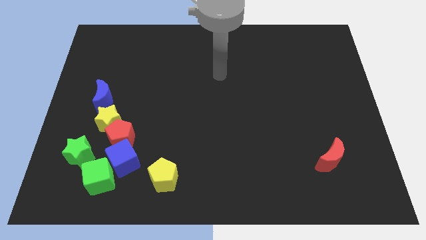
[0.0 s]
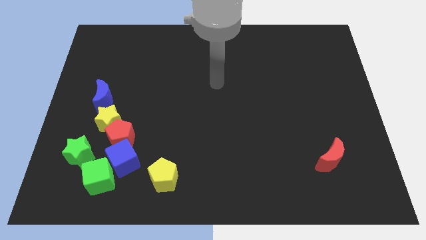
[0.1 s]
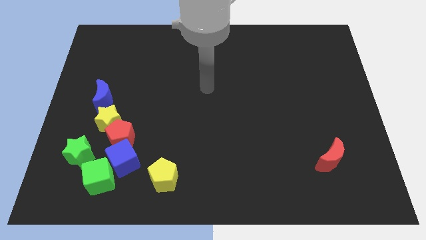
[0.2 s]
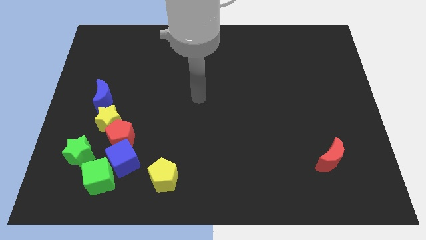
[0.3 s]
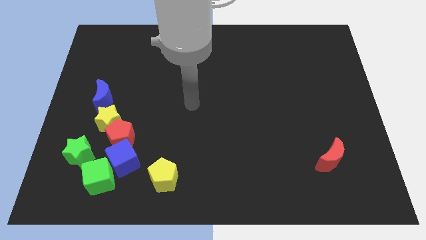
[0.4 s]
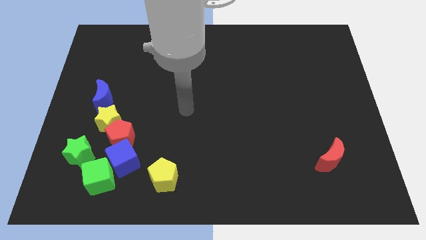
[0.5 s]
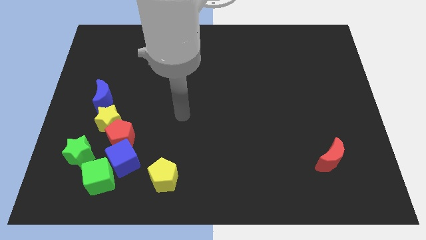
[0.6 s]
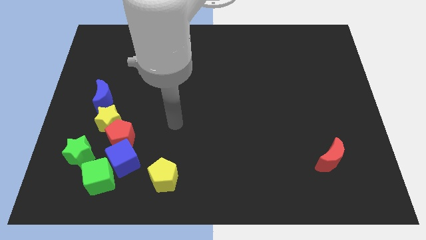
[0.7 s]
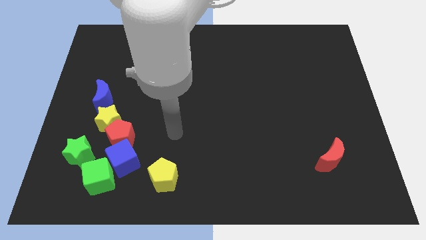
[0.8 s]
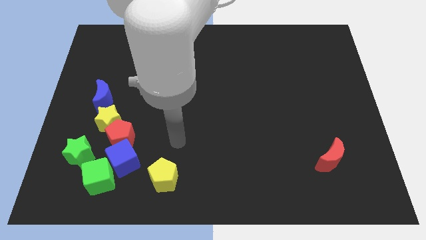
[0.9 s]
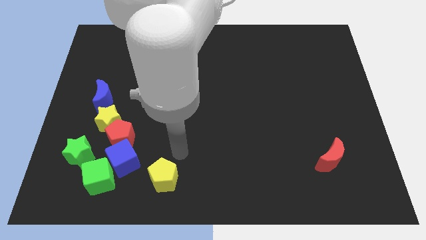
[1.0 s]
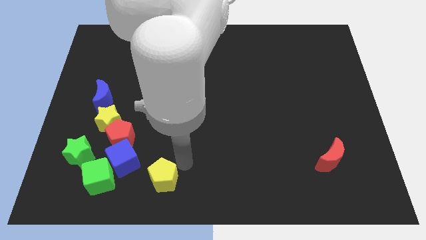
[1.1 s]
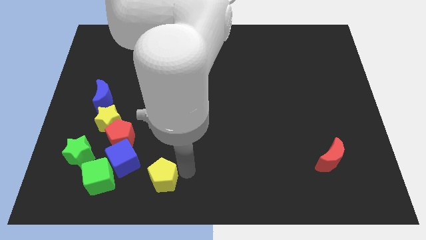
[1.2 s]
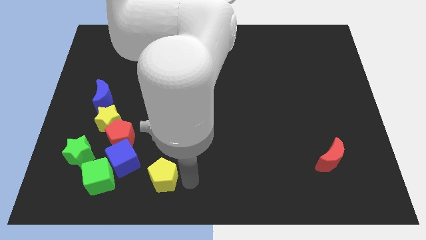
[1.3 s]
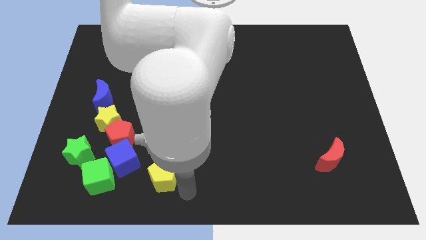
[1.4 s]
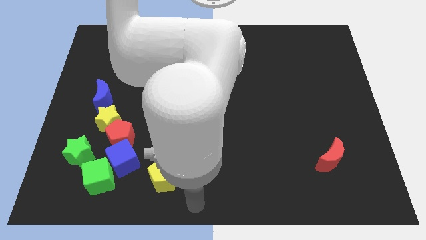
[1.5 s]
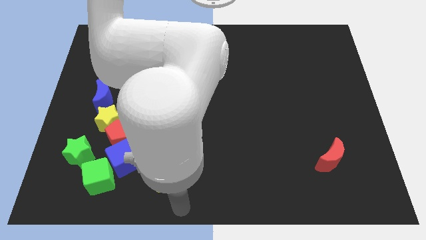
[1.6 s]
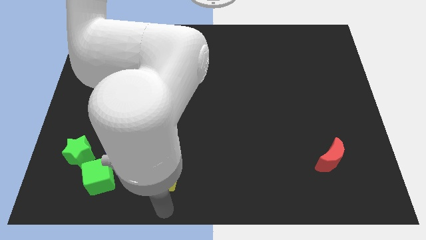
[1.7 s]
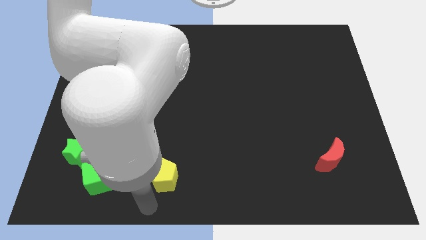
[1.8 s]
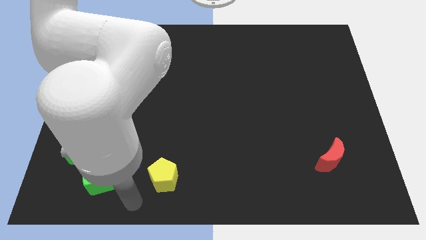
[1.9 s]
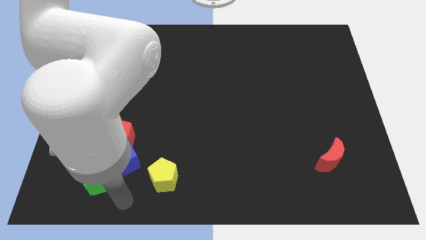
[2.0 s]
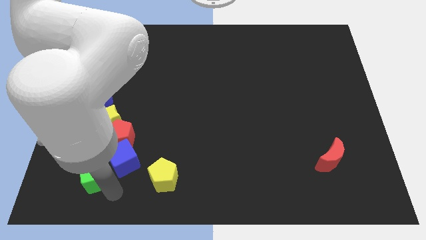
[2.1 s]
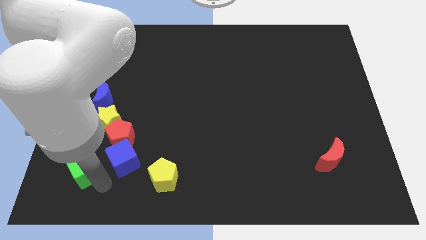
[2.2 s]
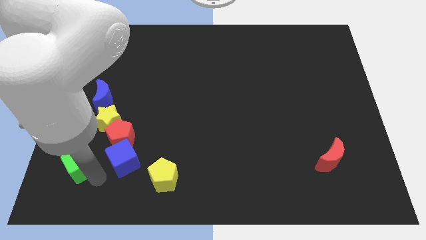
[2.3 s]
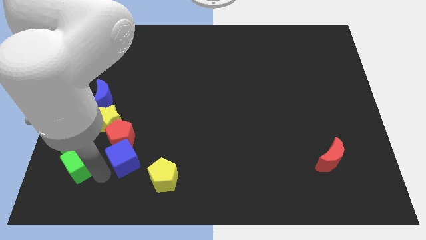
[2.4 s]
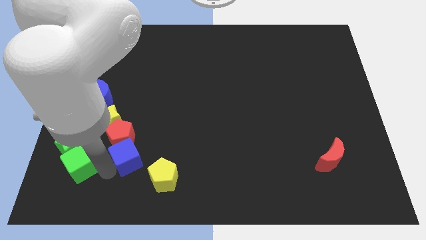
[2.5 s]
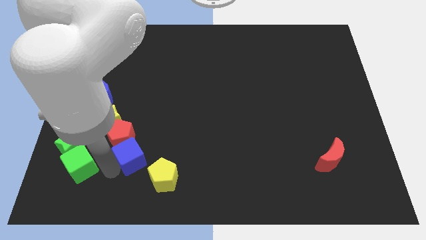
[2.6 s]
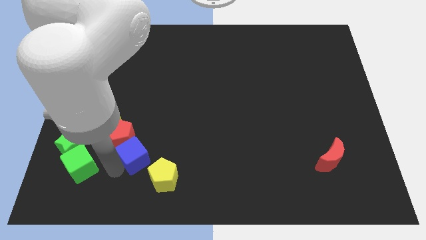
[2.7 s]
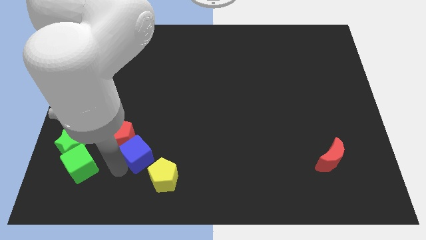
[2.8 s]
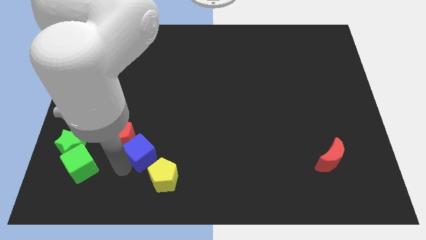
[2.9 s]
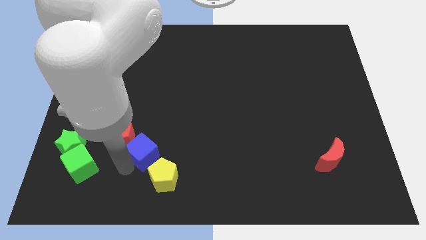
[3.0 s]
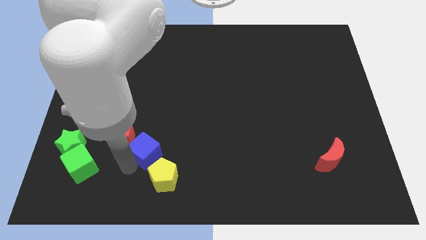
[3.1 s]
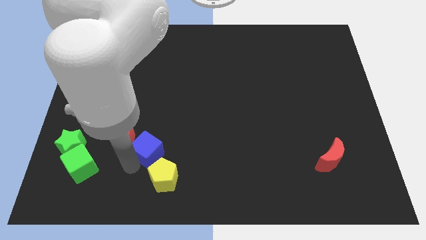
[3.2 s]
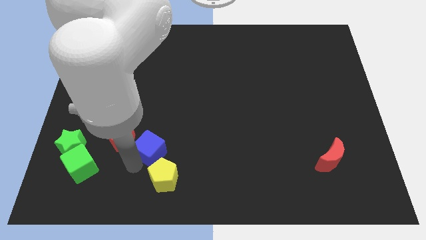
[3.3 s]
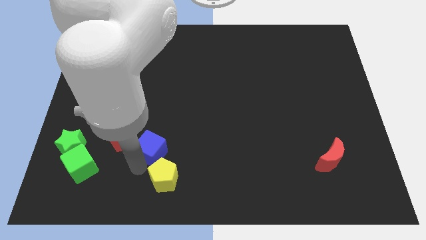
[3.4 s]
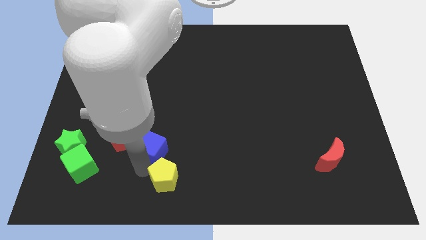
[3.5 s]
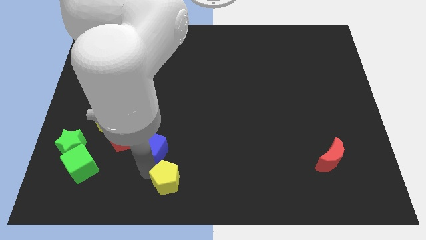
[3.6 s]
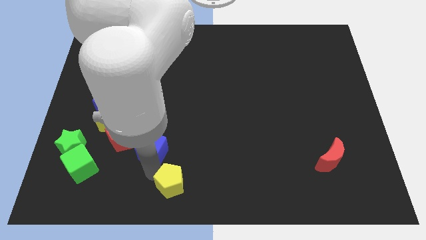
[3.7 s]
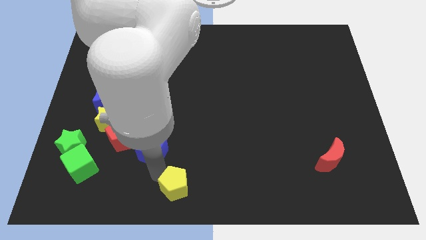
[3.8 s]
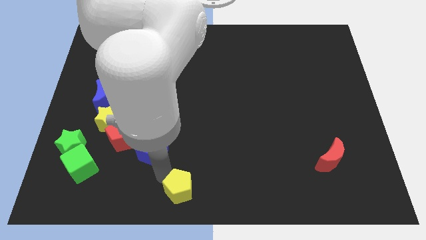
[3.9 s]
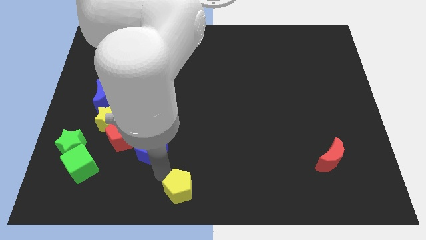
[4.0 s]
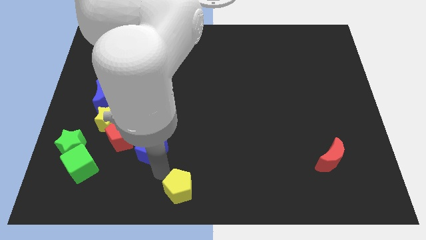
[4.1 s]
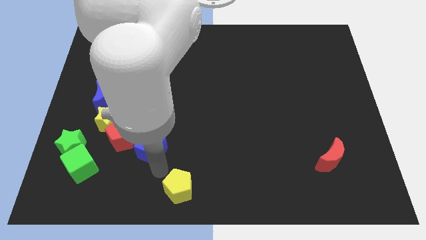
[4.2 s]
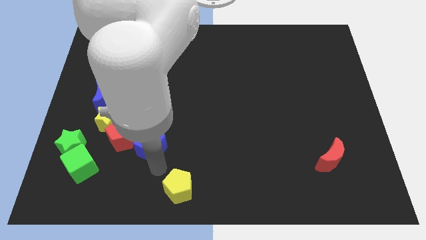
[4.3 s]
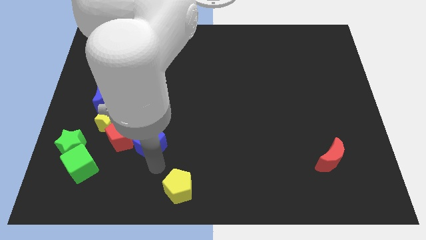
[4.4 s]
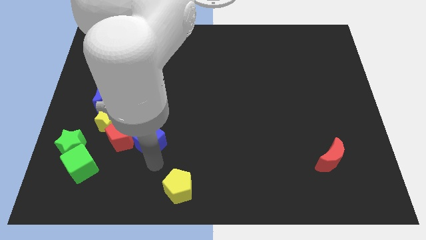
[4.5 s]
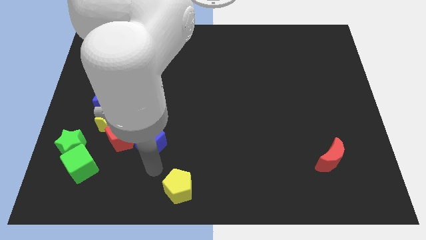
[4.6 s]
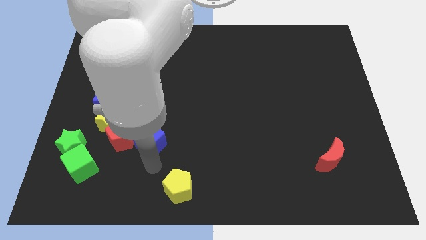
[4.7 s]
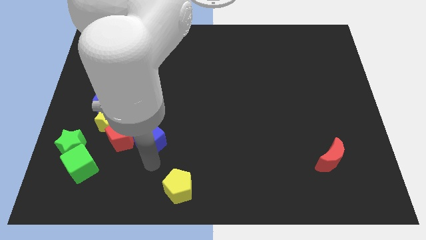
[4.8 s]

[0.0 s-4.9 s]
slide the blue cube to the top right of the red pentagon

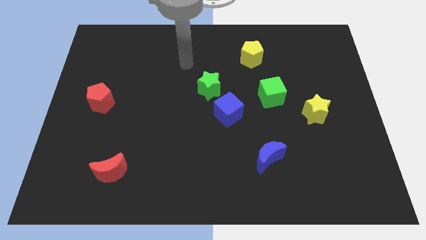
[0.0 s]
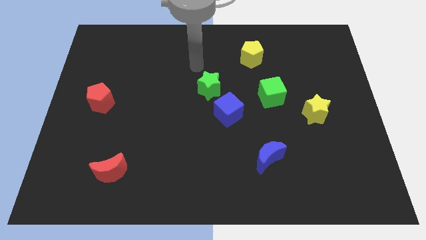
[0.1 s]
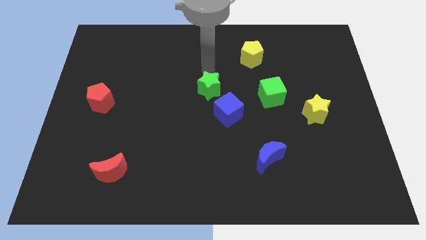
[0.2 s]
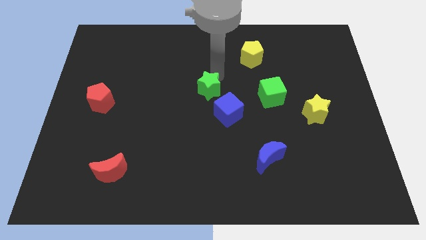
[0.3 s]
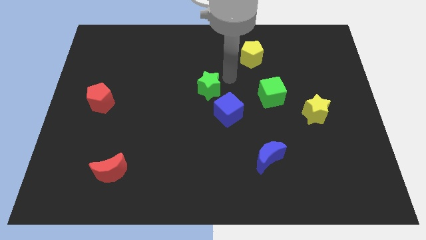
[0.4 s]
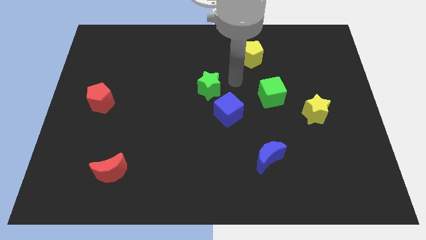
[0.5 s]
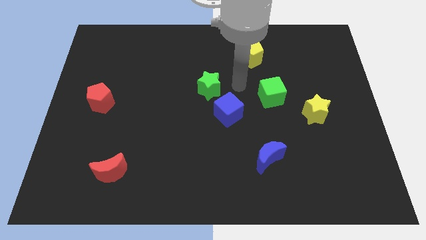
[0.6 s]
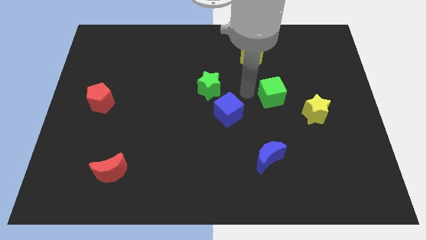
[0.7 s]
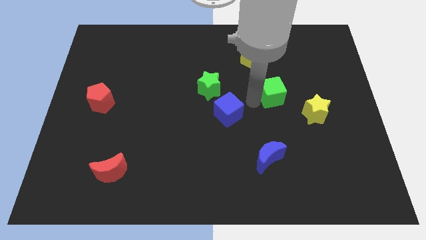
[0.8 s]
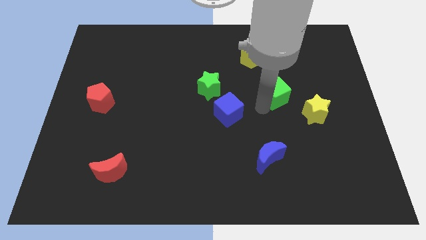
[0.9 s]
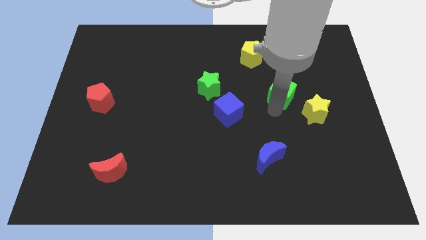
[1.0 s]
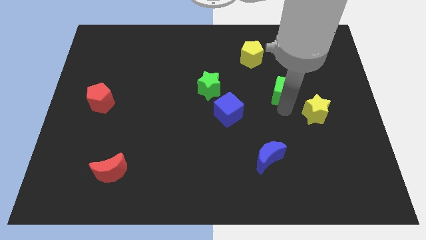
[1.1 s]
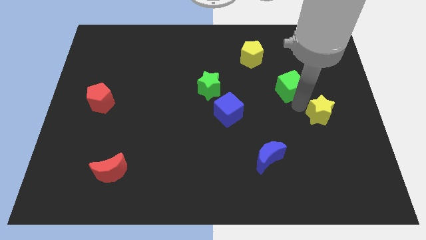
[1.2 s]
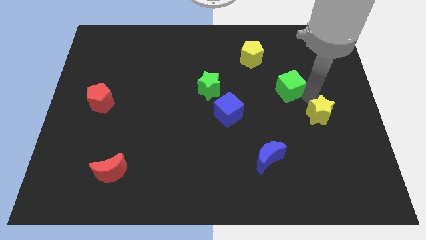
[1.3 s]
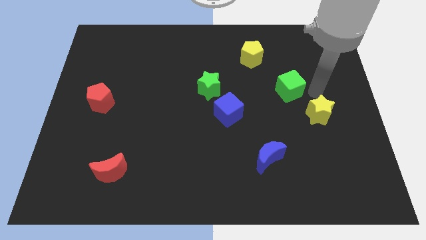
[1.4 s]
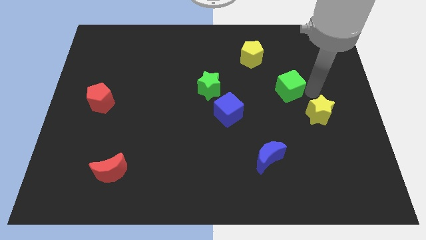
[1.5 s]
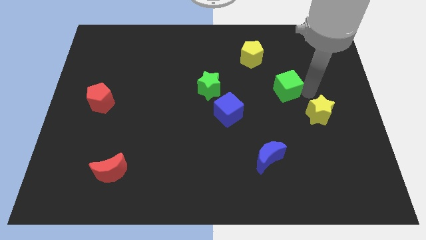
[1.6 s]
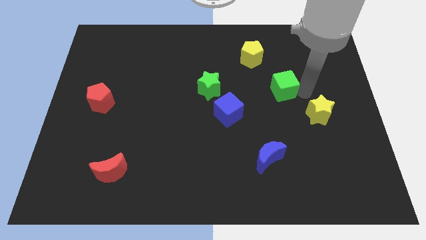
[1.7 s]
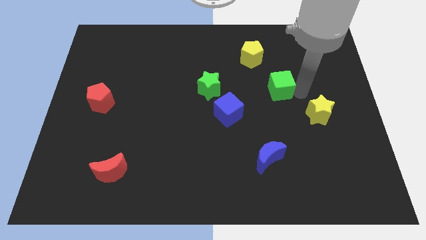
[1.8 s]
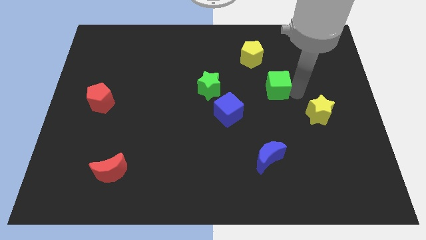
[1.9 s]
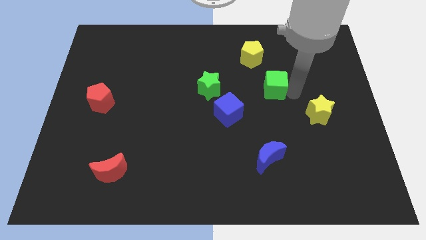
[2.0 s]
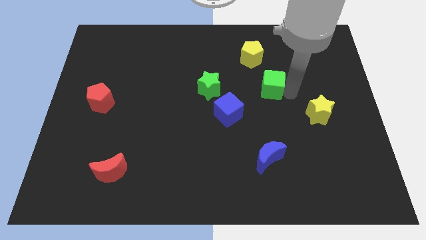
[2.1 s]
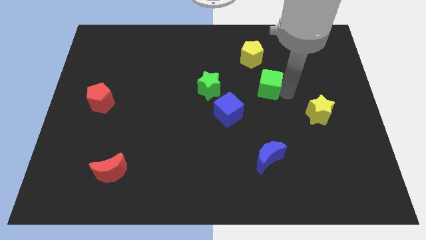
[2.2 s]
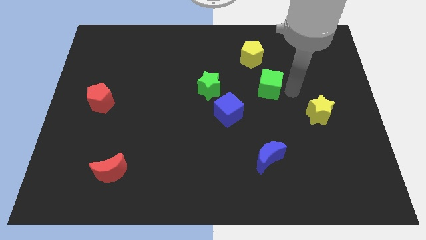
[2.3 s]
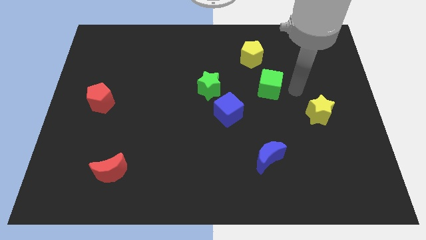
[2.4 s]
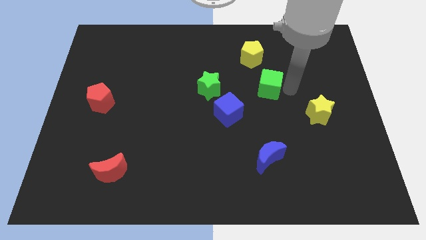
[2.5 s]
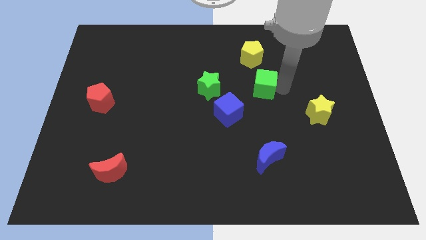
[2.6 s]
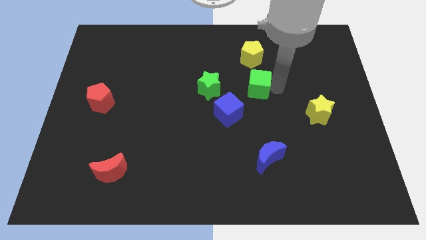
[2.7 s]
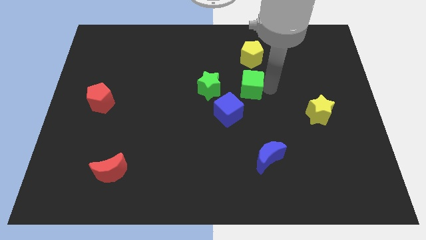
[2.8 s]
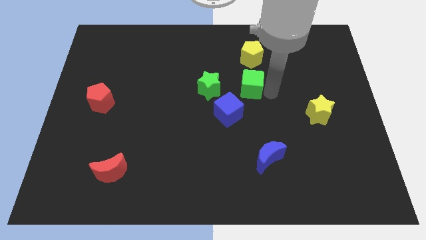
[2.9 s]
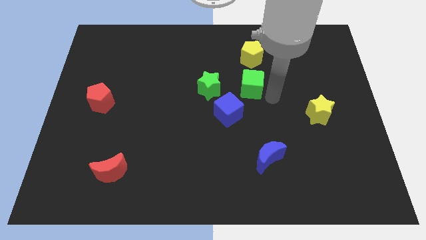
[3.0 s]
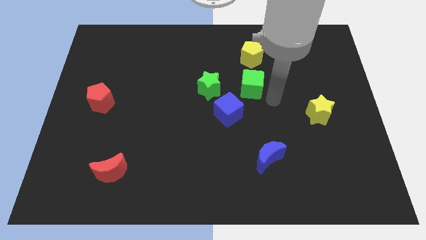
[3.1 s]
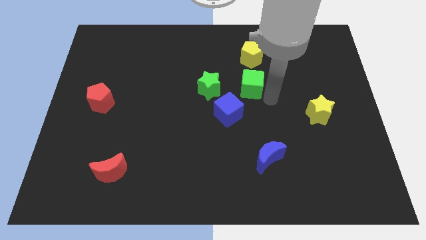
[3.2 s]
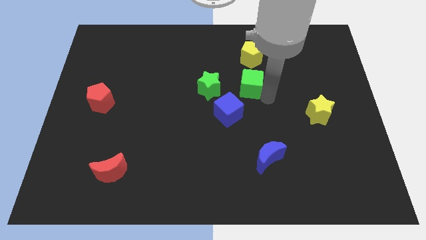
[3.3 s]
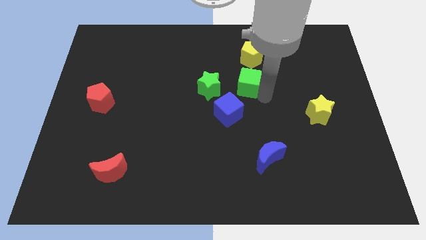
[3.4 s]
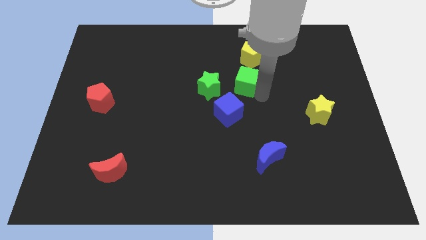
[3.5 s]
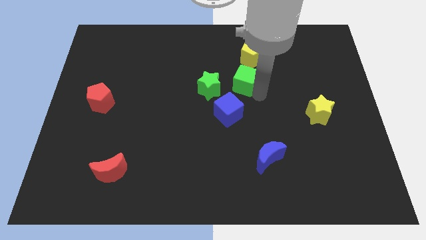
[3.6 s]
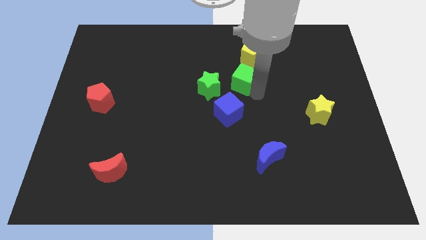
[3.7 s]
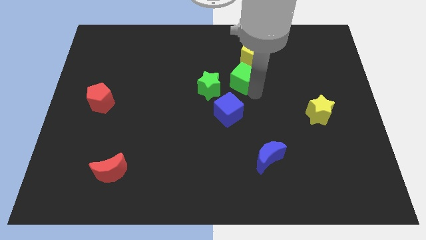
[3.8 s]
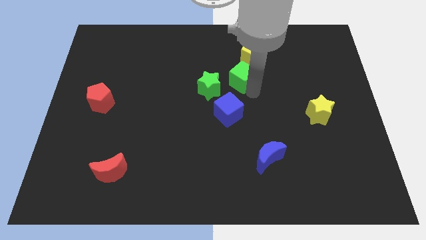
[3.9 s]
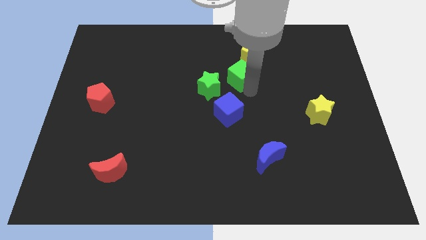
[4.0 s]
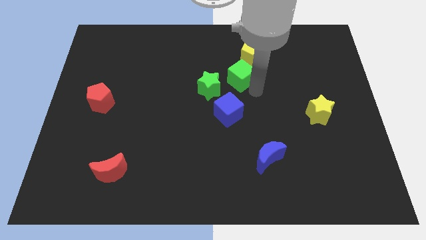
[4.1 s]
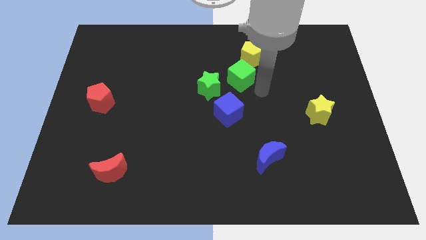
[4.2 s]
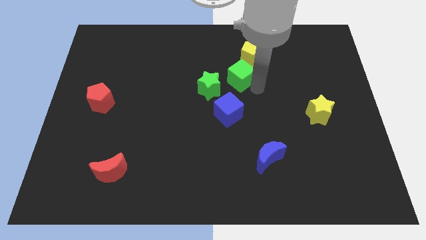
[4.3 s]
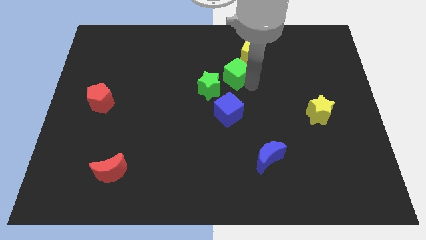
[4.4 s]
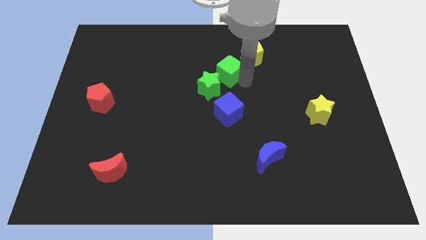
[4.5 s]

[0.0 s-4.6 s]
slide the green cube to the top side of the green star
